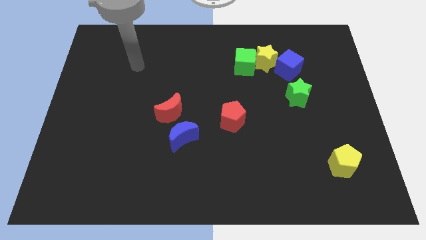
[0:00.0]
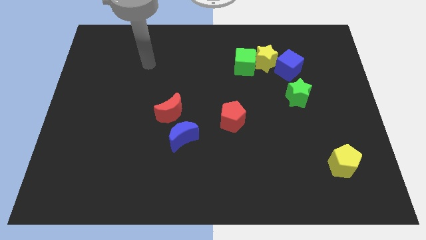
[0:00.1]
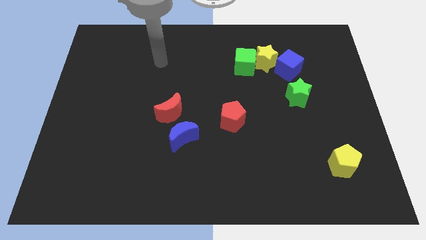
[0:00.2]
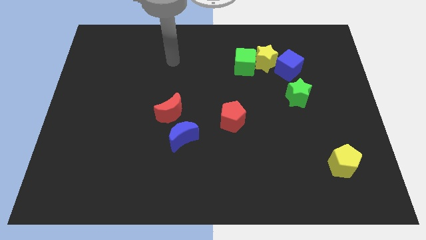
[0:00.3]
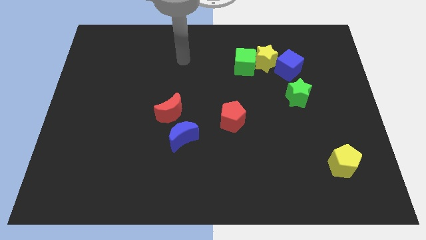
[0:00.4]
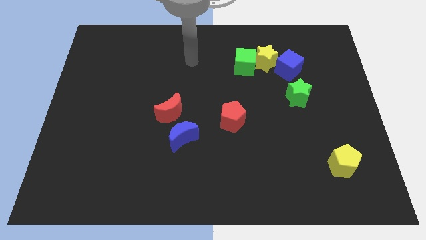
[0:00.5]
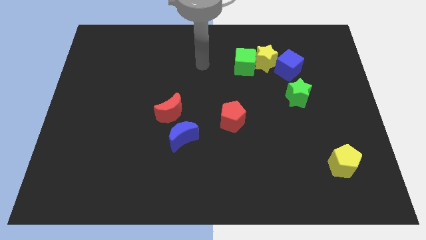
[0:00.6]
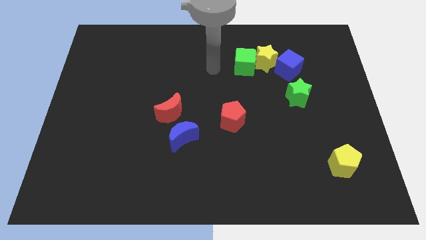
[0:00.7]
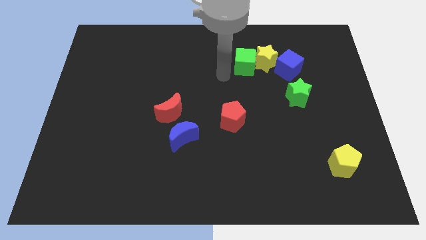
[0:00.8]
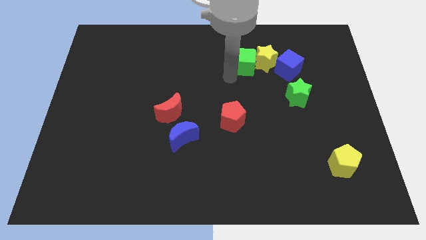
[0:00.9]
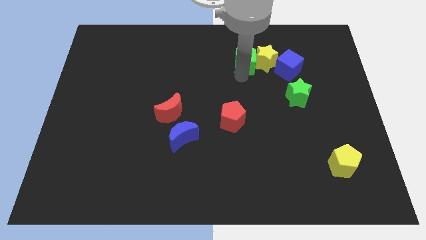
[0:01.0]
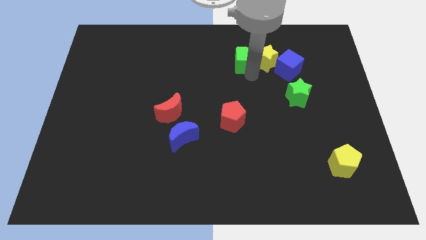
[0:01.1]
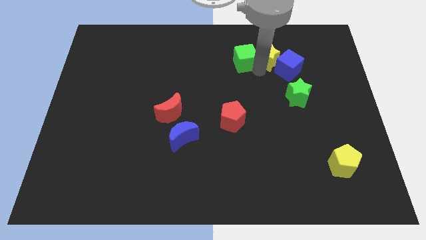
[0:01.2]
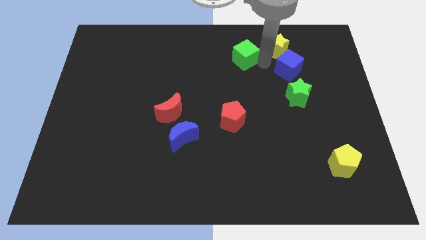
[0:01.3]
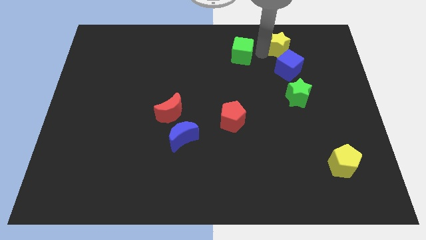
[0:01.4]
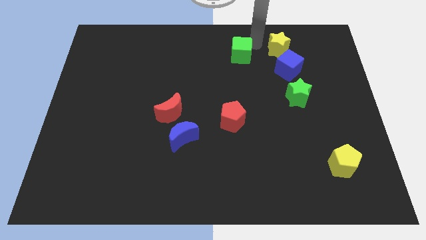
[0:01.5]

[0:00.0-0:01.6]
pull the green cube apart from the yellow star

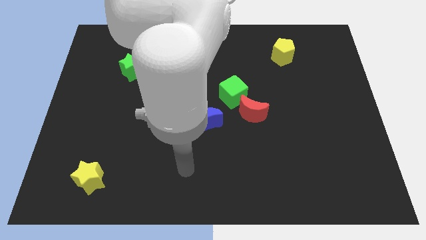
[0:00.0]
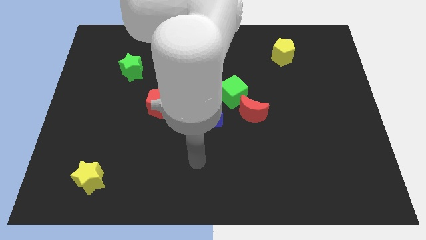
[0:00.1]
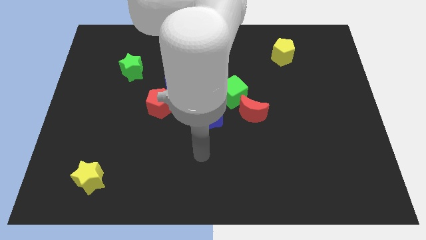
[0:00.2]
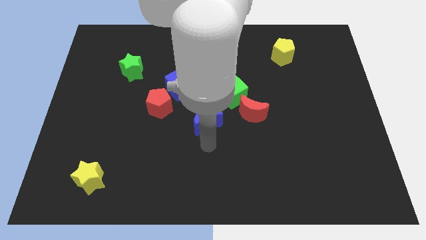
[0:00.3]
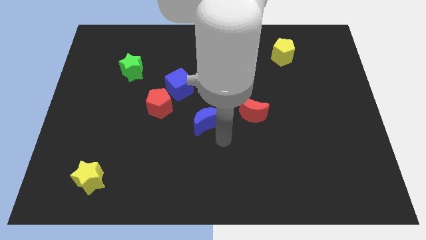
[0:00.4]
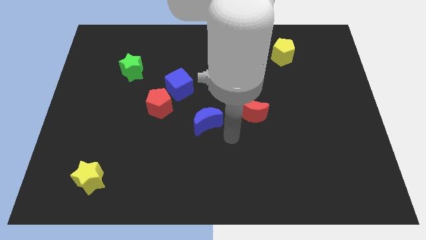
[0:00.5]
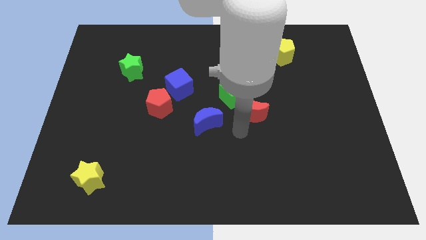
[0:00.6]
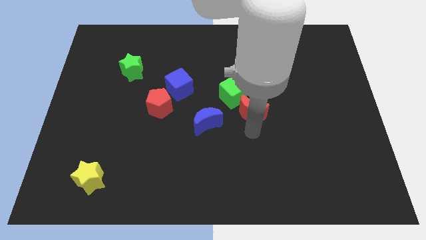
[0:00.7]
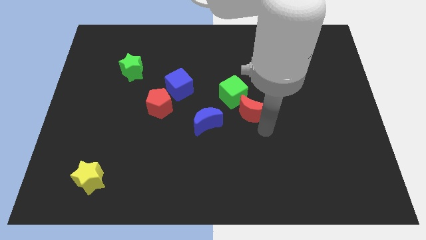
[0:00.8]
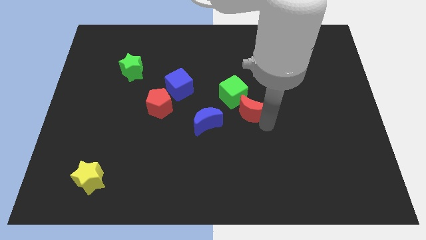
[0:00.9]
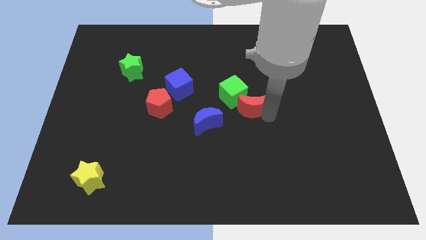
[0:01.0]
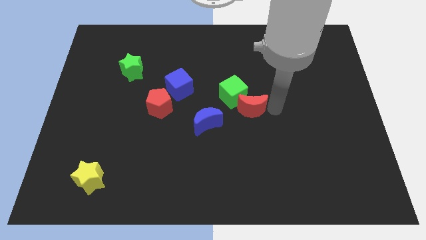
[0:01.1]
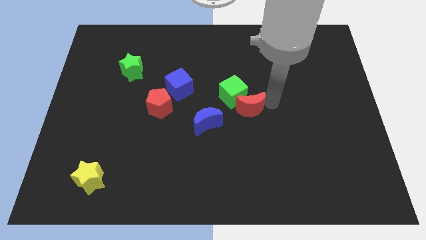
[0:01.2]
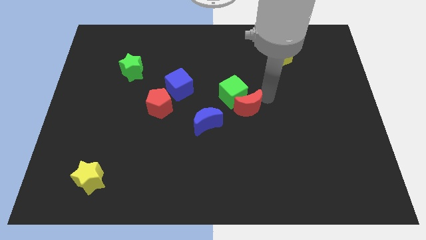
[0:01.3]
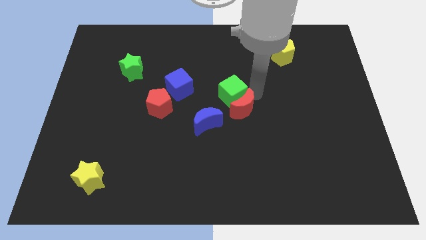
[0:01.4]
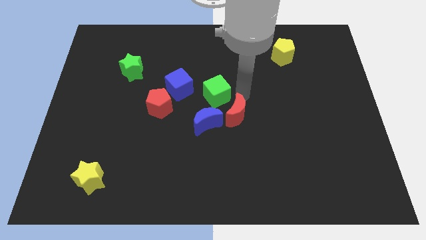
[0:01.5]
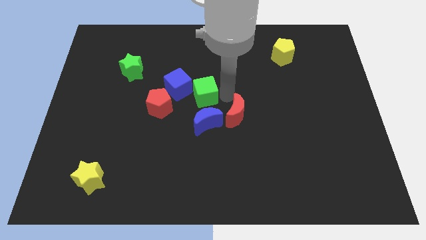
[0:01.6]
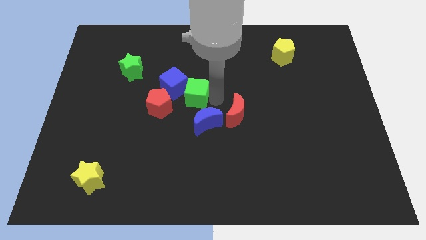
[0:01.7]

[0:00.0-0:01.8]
move the red moon away from the green cube

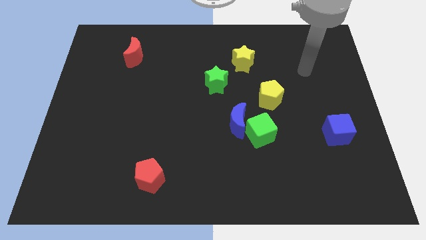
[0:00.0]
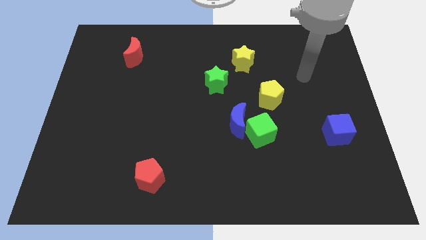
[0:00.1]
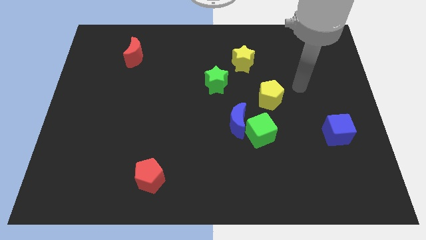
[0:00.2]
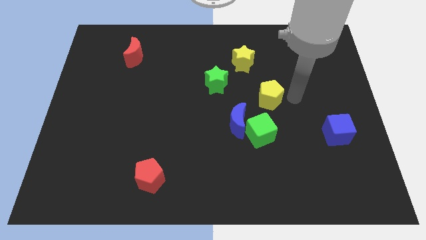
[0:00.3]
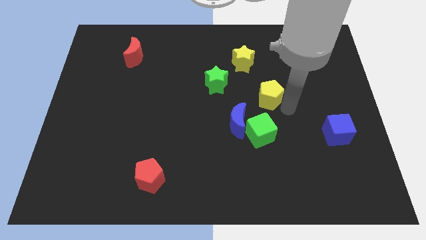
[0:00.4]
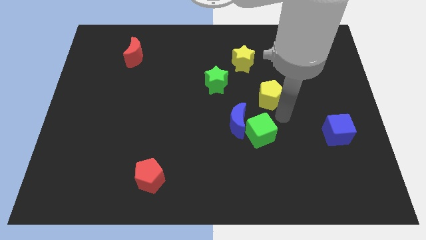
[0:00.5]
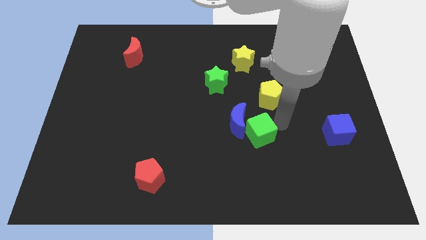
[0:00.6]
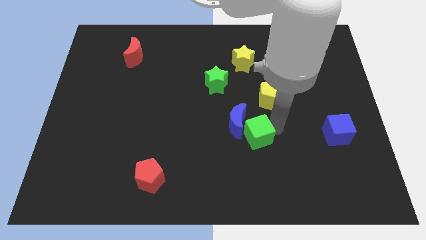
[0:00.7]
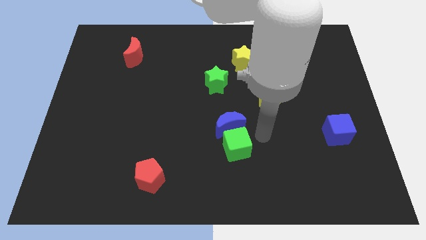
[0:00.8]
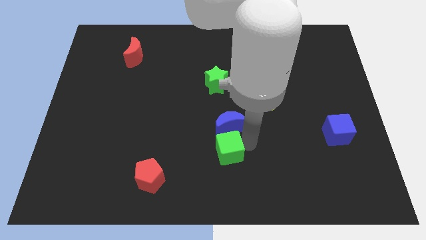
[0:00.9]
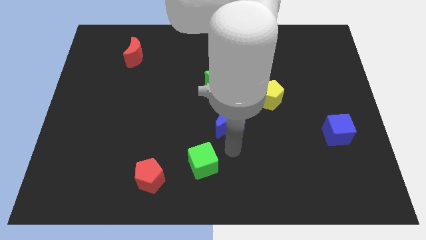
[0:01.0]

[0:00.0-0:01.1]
move the blue moon away from the green cube

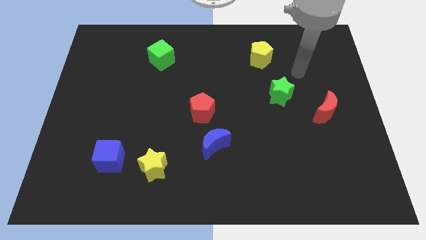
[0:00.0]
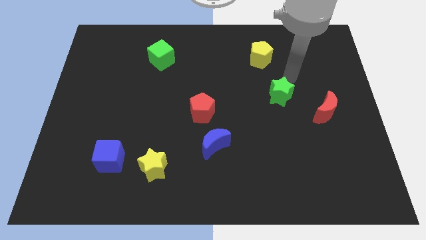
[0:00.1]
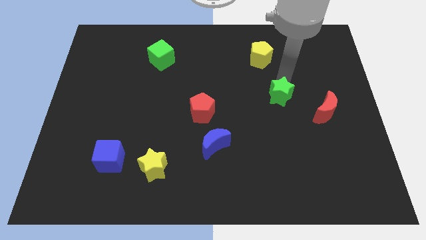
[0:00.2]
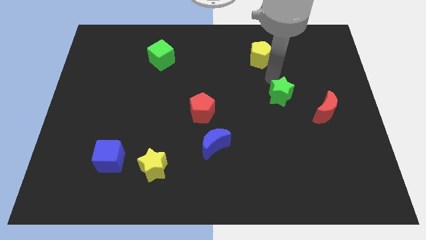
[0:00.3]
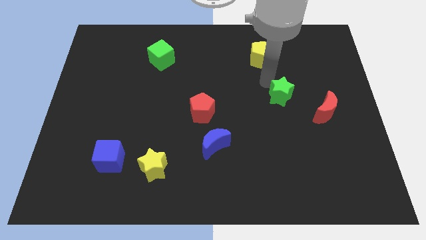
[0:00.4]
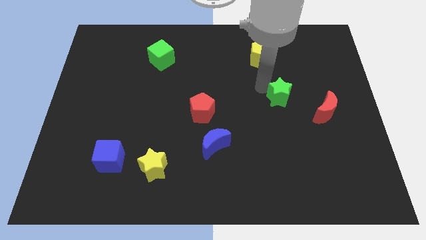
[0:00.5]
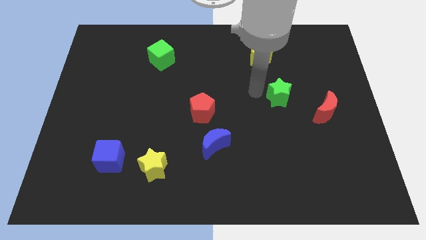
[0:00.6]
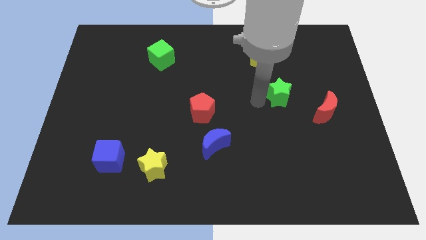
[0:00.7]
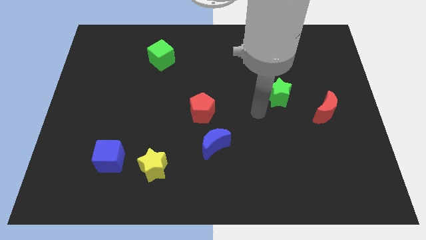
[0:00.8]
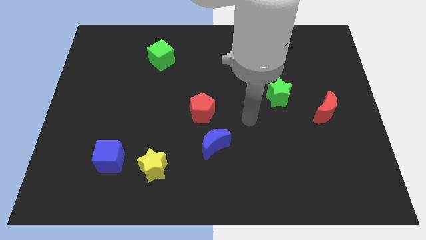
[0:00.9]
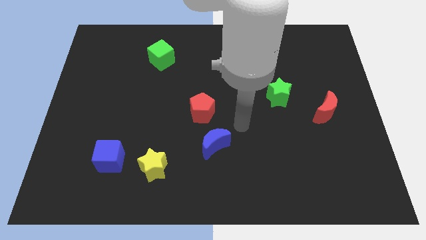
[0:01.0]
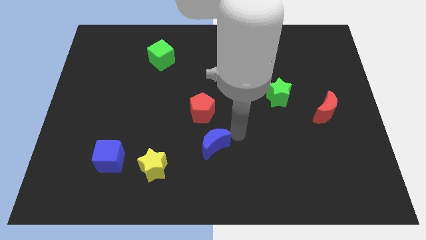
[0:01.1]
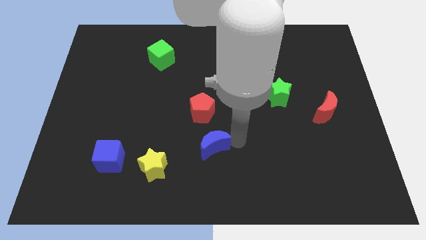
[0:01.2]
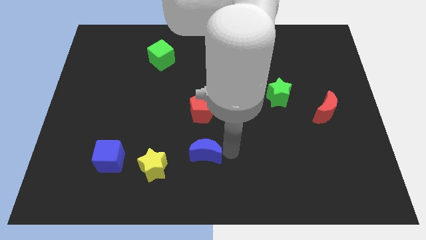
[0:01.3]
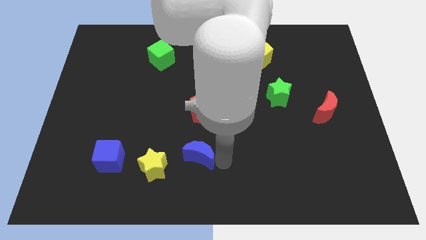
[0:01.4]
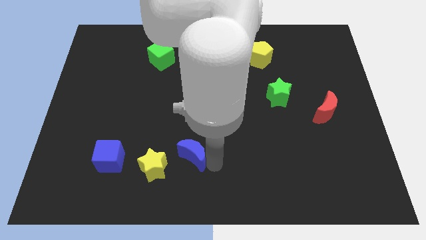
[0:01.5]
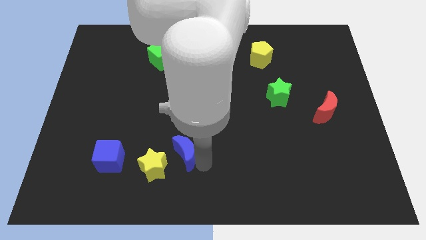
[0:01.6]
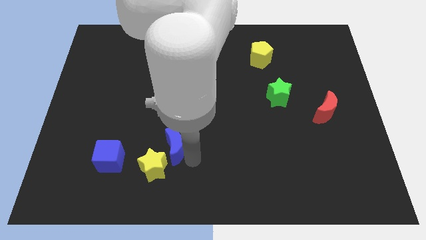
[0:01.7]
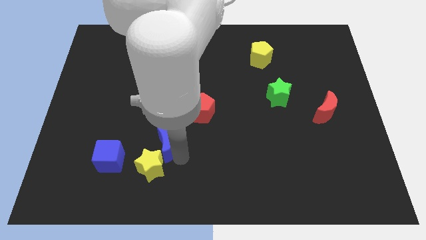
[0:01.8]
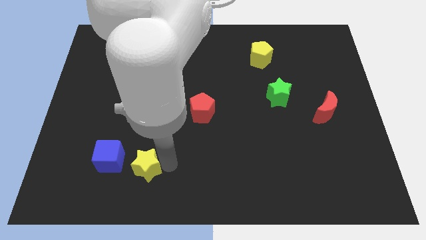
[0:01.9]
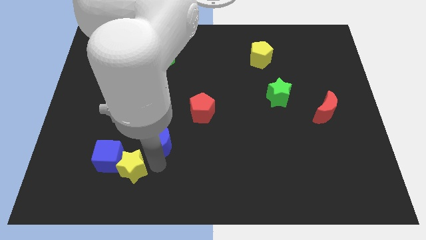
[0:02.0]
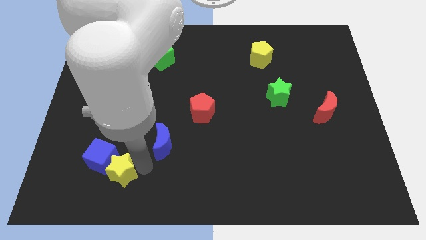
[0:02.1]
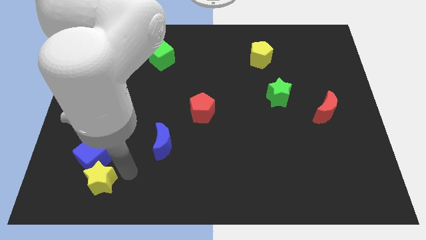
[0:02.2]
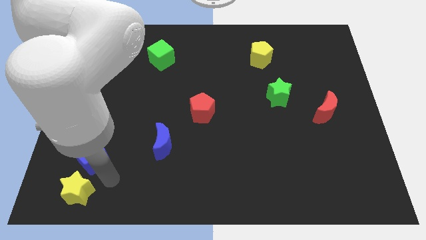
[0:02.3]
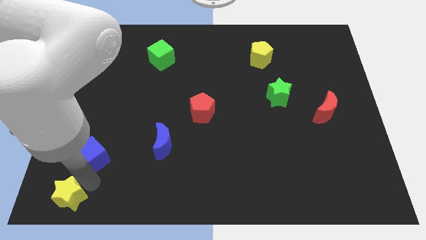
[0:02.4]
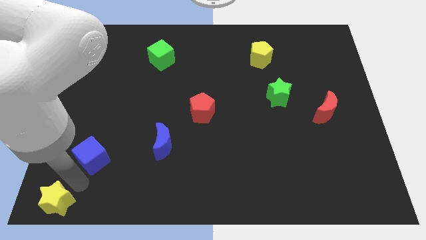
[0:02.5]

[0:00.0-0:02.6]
move the blue cube away from the yellow star

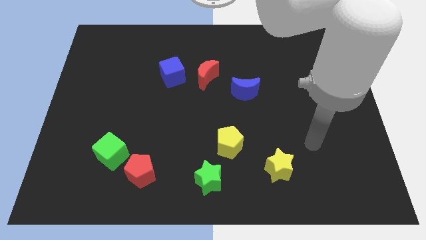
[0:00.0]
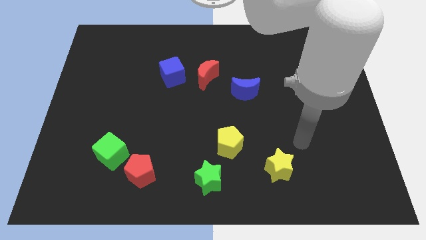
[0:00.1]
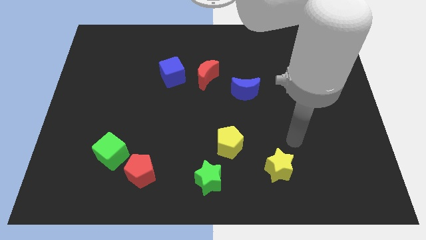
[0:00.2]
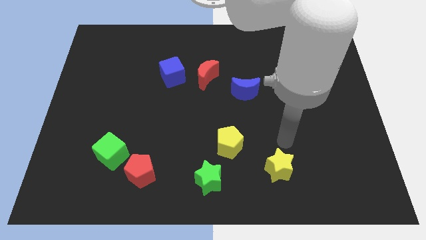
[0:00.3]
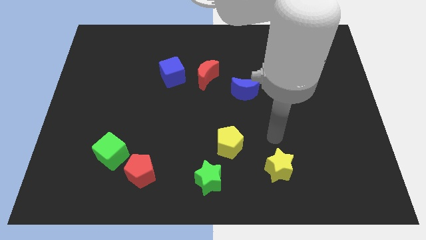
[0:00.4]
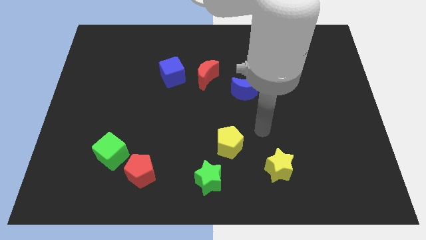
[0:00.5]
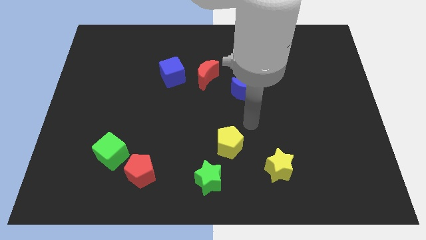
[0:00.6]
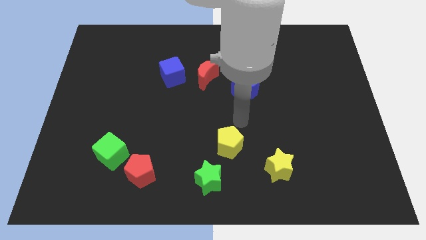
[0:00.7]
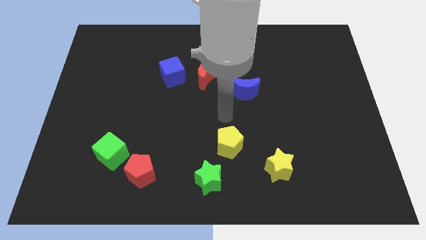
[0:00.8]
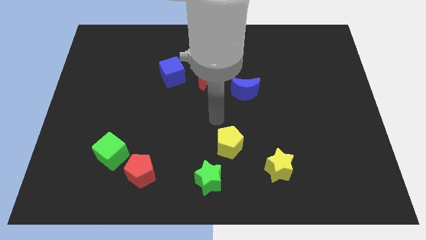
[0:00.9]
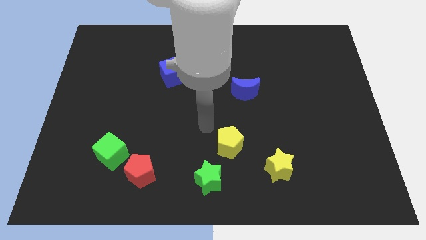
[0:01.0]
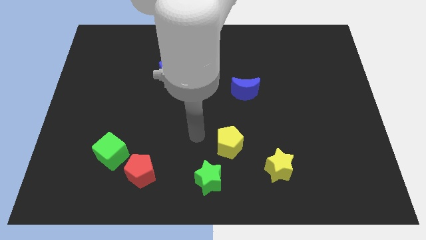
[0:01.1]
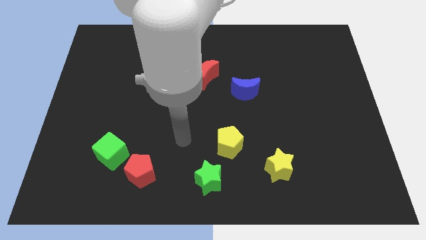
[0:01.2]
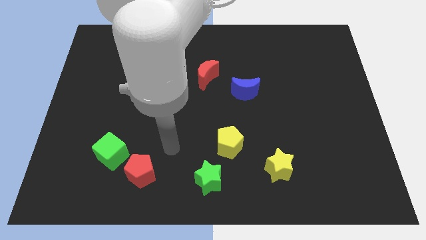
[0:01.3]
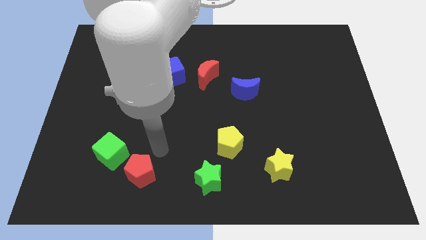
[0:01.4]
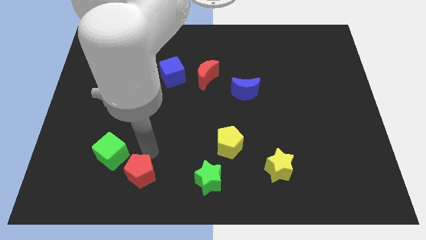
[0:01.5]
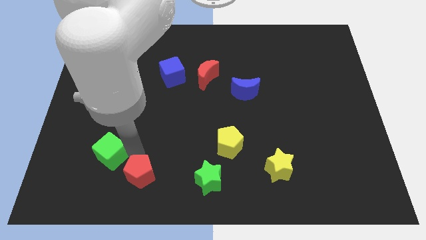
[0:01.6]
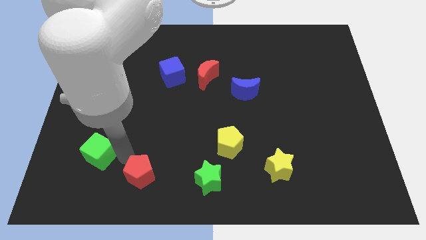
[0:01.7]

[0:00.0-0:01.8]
pull the red pentagon apart from the green cube

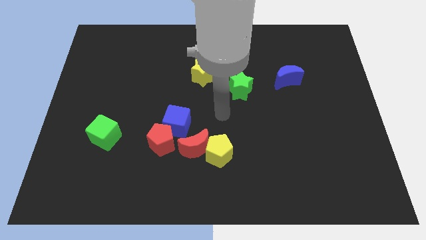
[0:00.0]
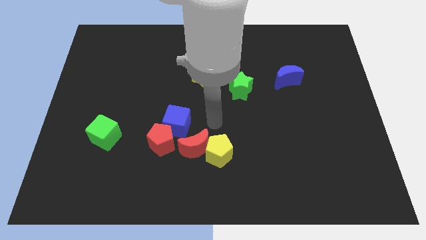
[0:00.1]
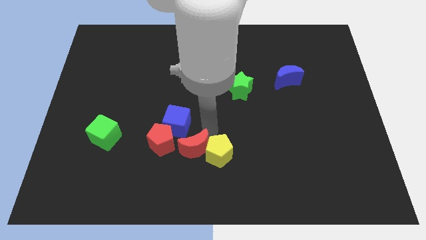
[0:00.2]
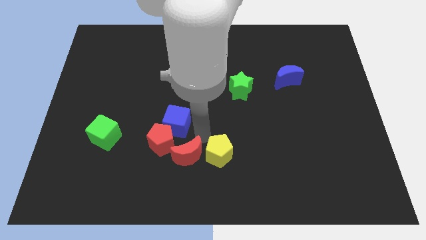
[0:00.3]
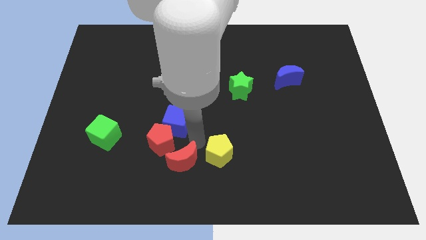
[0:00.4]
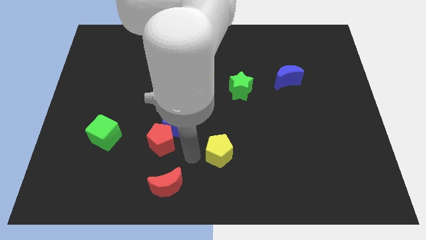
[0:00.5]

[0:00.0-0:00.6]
pull the yellow pentagon apart from the red moon
